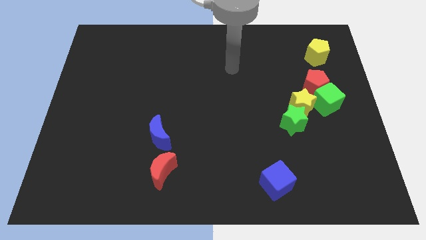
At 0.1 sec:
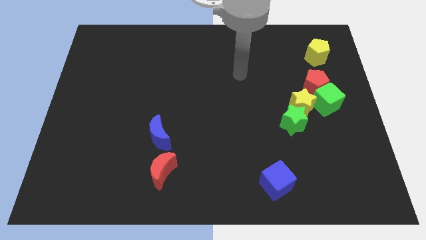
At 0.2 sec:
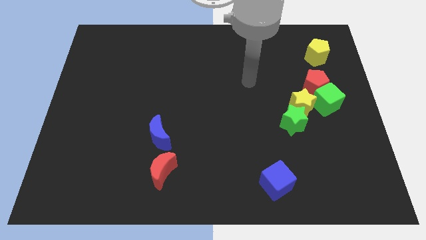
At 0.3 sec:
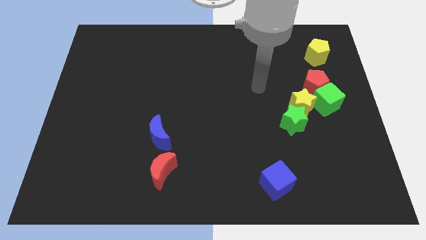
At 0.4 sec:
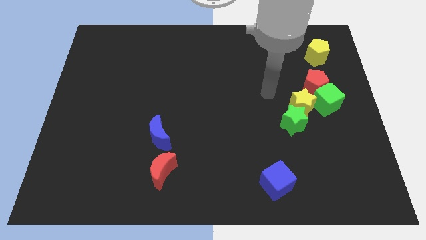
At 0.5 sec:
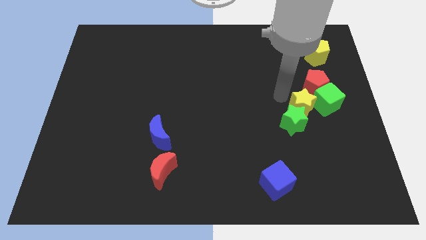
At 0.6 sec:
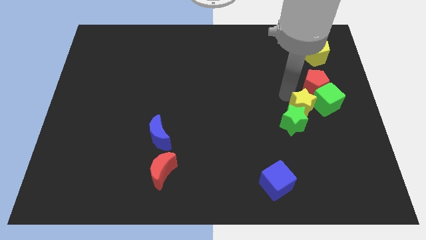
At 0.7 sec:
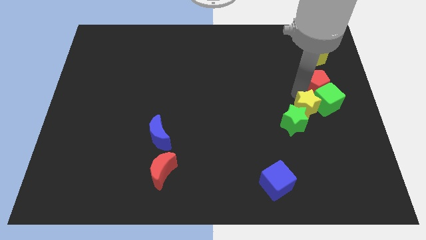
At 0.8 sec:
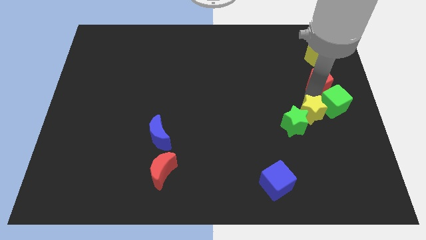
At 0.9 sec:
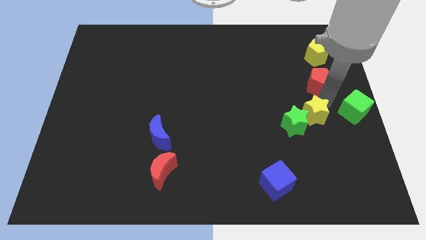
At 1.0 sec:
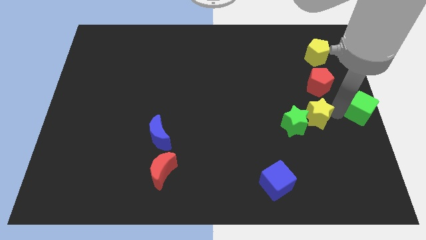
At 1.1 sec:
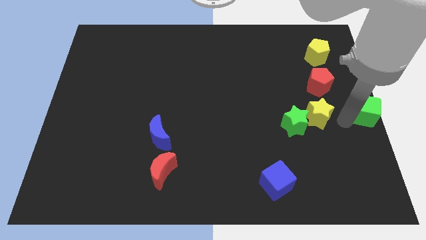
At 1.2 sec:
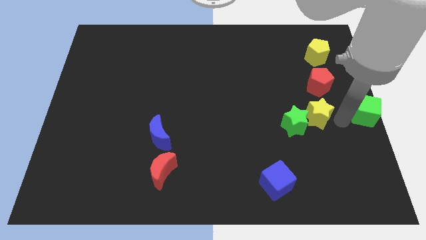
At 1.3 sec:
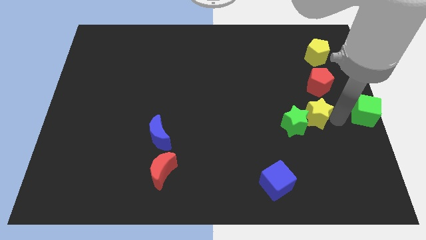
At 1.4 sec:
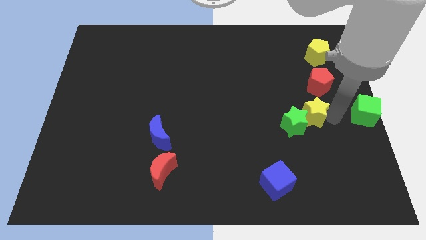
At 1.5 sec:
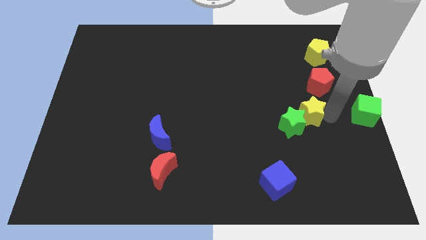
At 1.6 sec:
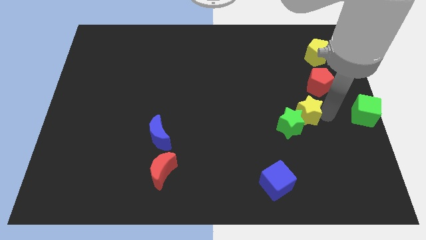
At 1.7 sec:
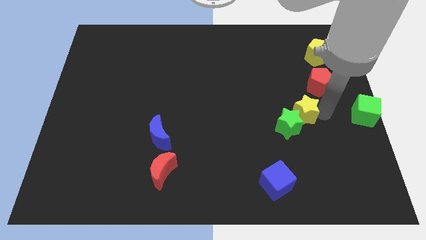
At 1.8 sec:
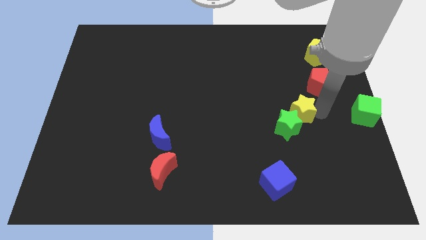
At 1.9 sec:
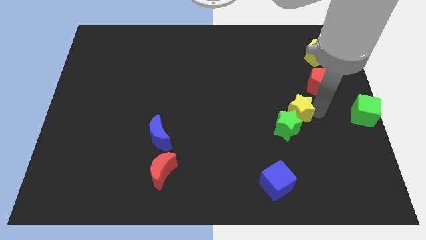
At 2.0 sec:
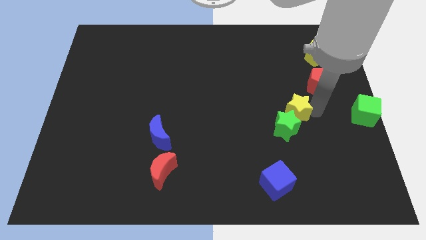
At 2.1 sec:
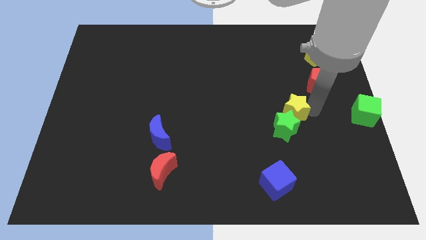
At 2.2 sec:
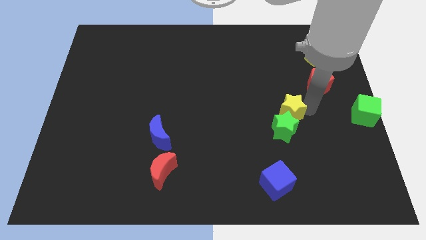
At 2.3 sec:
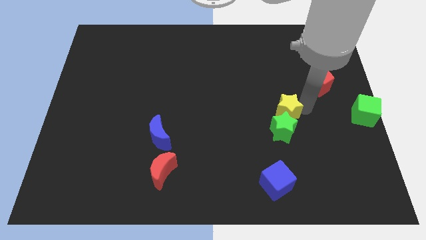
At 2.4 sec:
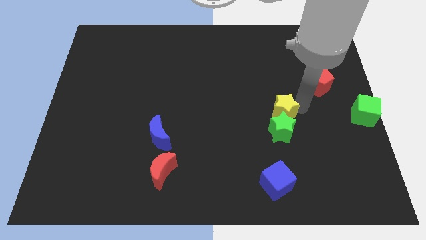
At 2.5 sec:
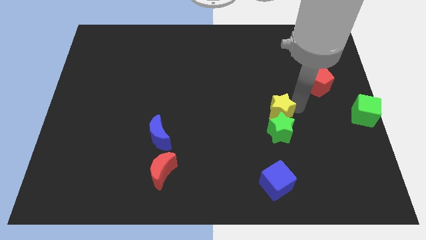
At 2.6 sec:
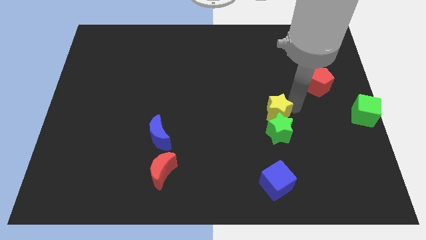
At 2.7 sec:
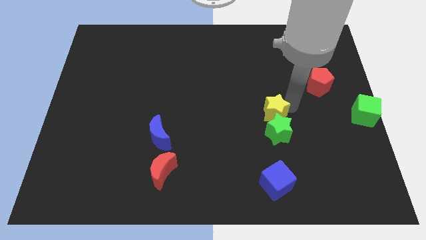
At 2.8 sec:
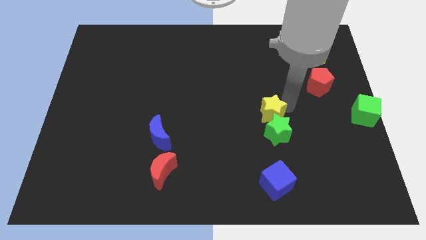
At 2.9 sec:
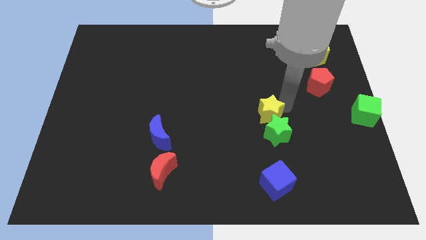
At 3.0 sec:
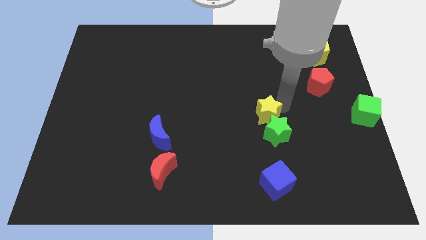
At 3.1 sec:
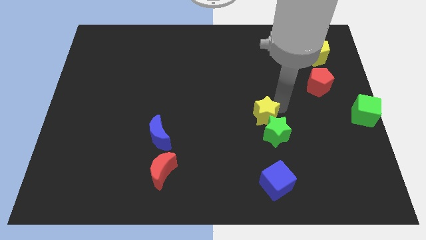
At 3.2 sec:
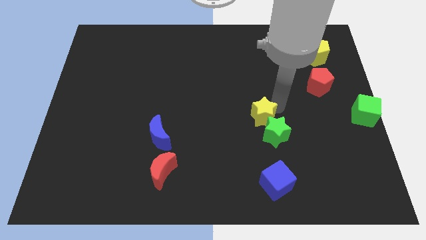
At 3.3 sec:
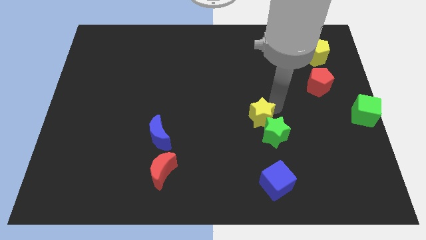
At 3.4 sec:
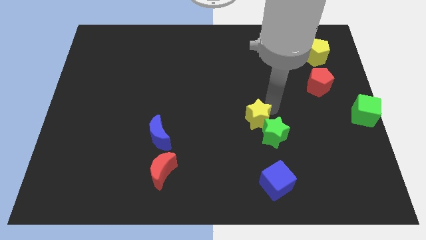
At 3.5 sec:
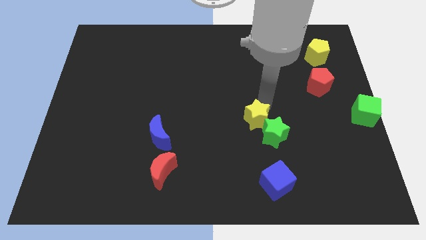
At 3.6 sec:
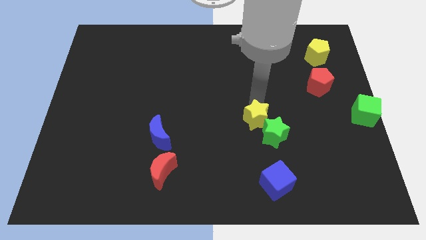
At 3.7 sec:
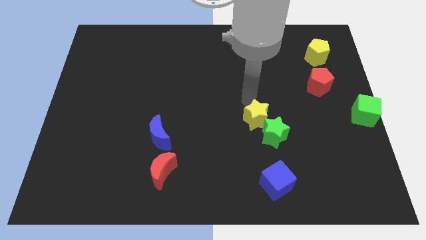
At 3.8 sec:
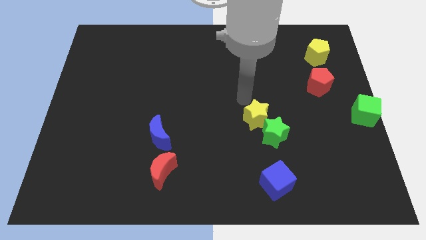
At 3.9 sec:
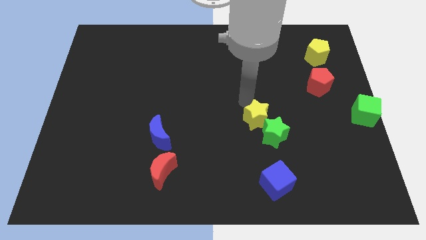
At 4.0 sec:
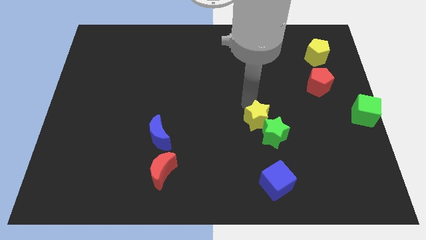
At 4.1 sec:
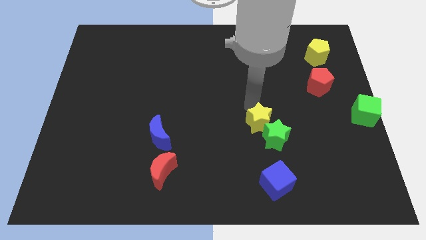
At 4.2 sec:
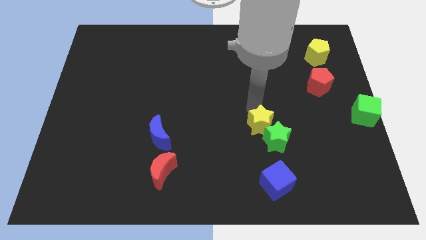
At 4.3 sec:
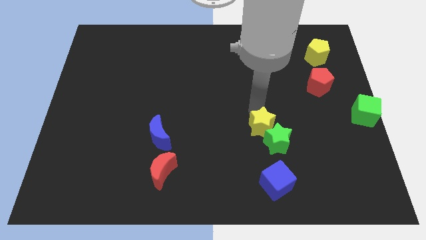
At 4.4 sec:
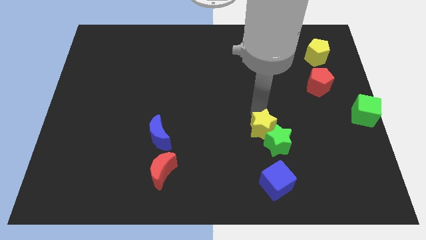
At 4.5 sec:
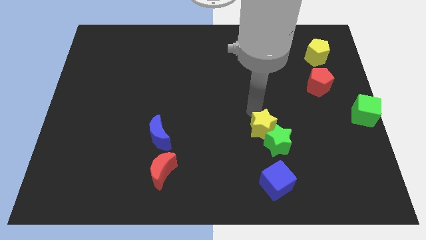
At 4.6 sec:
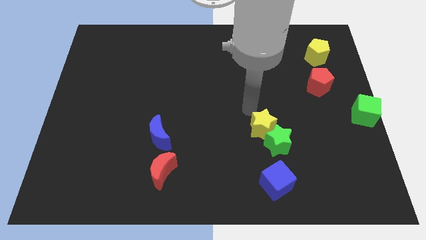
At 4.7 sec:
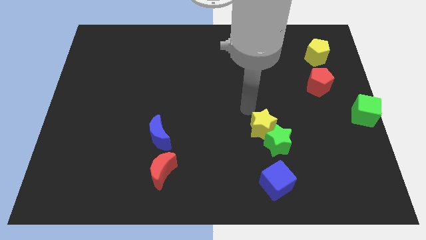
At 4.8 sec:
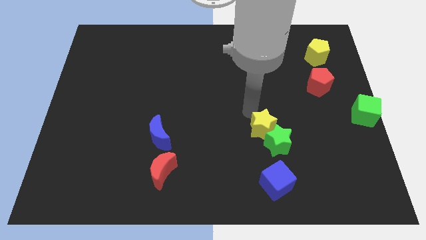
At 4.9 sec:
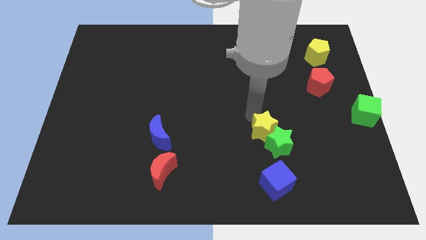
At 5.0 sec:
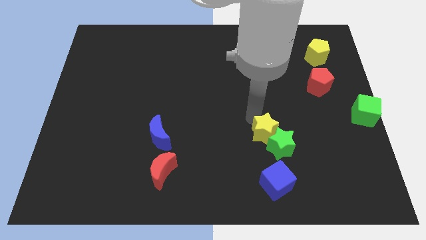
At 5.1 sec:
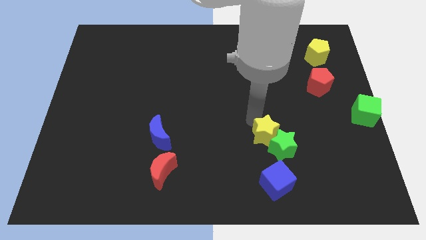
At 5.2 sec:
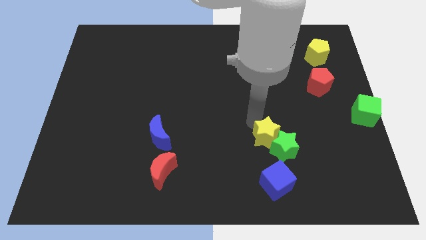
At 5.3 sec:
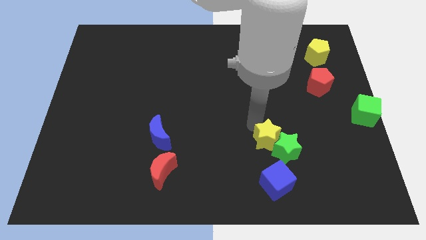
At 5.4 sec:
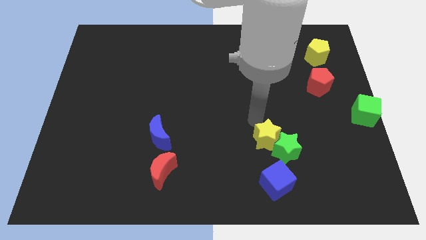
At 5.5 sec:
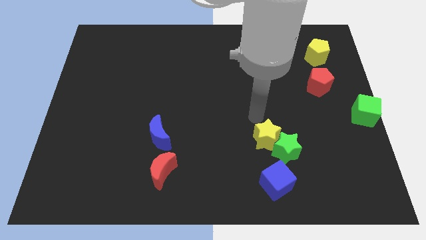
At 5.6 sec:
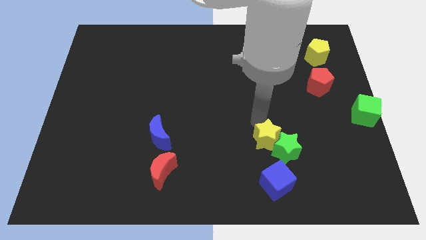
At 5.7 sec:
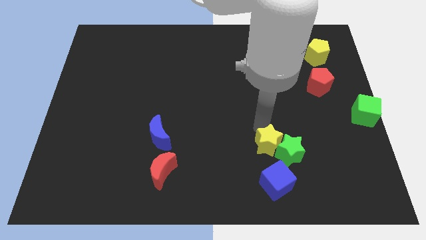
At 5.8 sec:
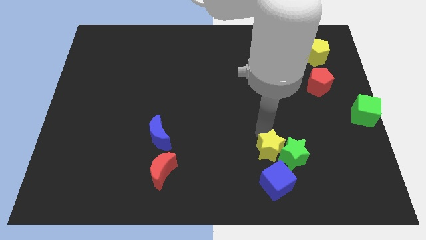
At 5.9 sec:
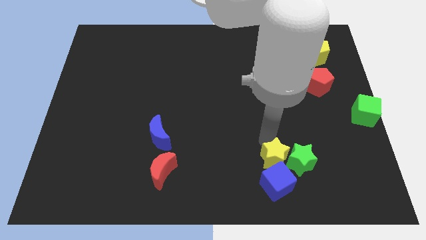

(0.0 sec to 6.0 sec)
slide the yellow star towards the blue cube

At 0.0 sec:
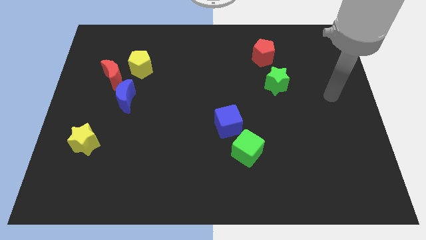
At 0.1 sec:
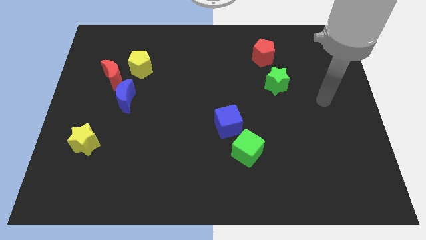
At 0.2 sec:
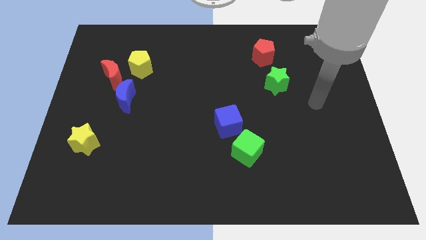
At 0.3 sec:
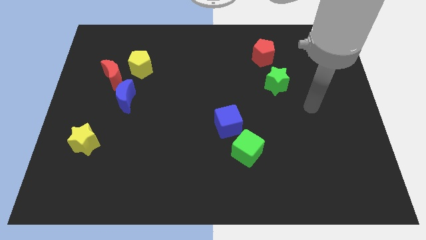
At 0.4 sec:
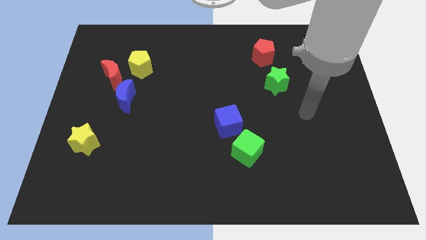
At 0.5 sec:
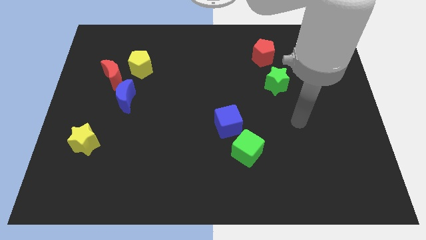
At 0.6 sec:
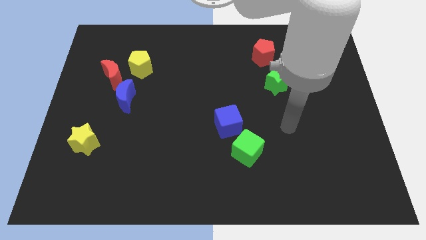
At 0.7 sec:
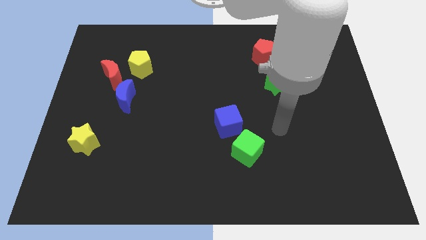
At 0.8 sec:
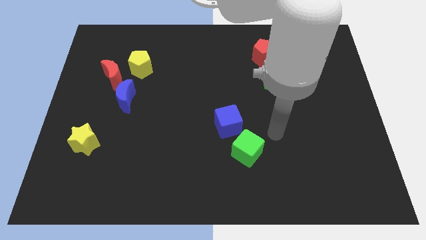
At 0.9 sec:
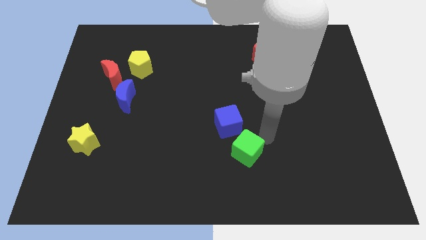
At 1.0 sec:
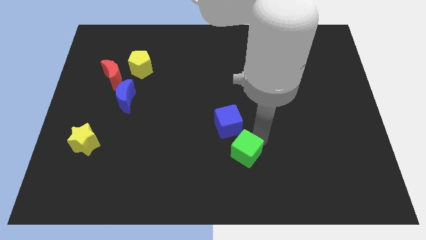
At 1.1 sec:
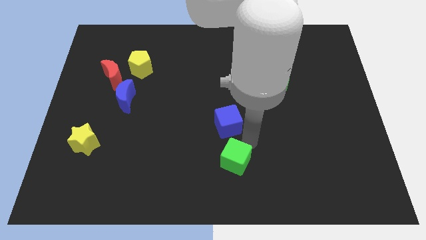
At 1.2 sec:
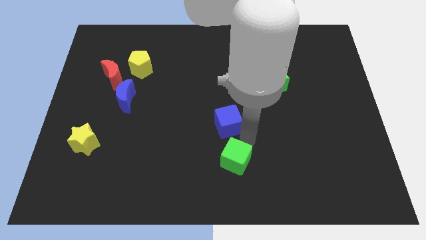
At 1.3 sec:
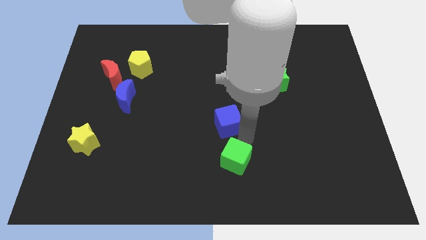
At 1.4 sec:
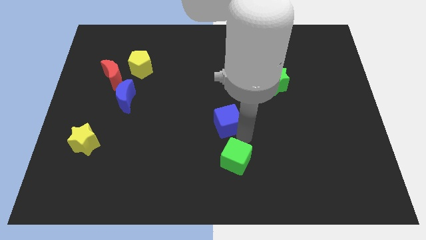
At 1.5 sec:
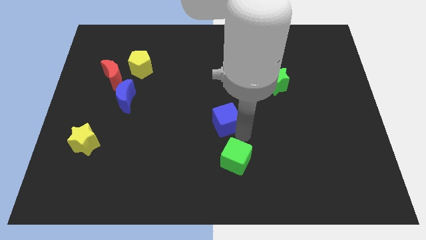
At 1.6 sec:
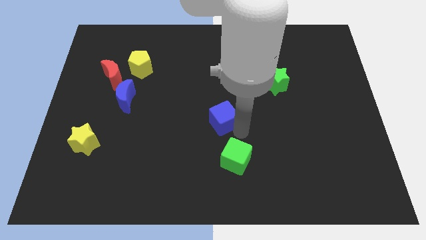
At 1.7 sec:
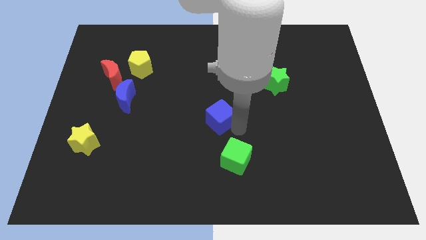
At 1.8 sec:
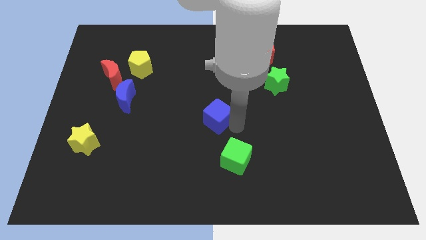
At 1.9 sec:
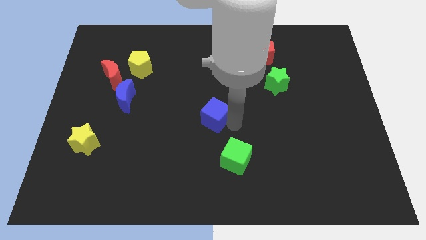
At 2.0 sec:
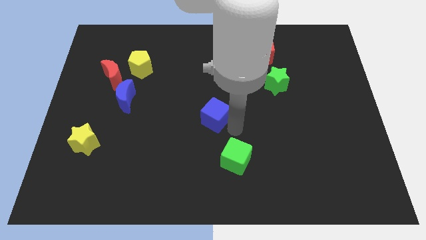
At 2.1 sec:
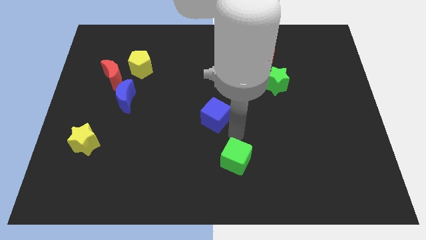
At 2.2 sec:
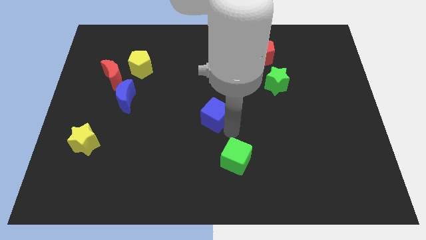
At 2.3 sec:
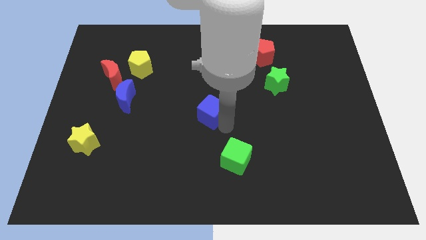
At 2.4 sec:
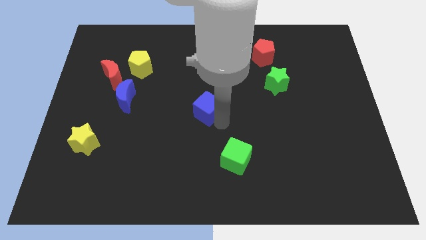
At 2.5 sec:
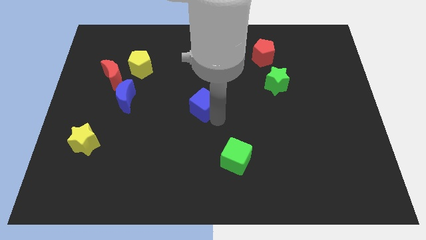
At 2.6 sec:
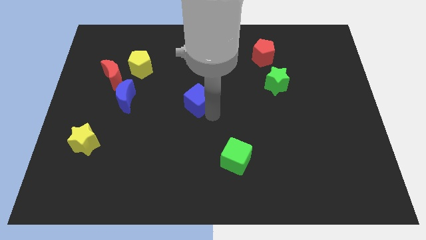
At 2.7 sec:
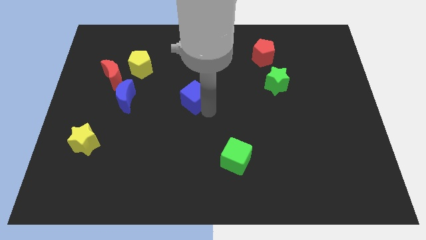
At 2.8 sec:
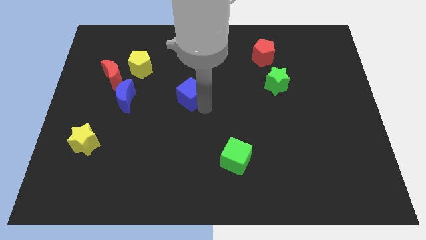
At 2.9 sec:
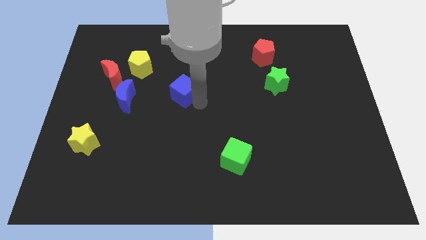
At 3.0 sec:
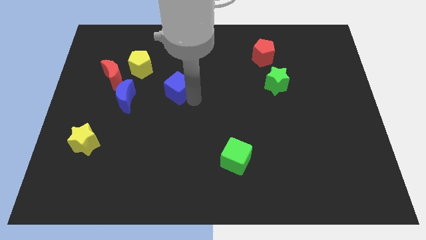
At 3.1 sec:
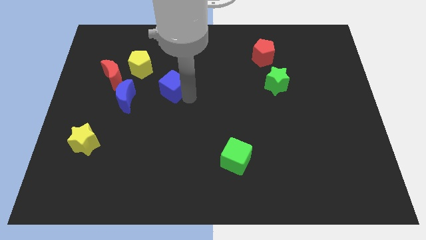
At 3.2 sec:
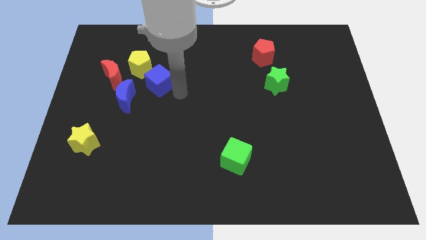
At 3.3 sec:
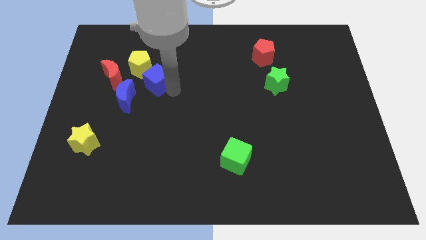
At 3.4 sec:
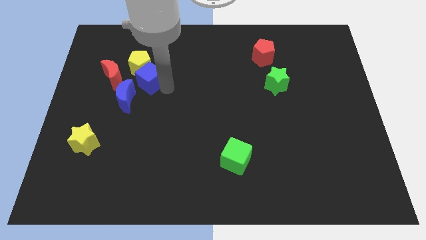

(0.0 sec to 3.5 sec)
move the blue cube close to the yellow pentagon
